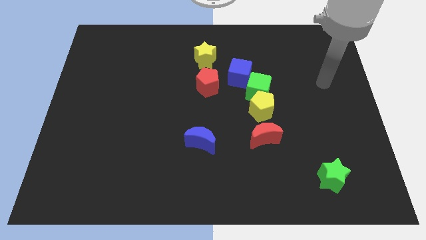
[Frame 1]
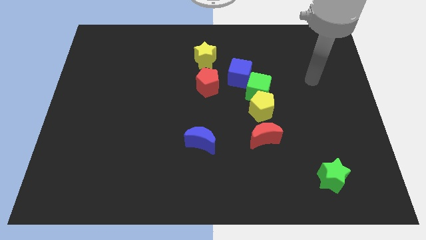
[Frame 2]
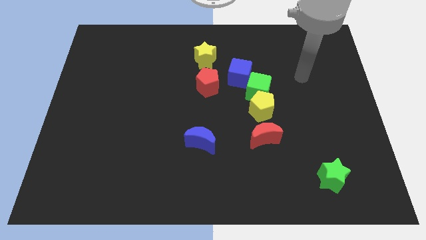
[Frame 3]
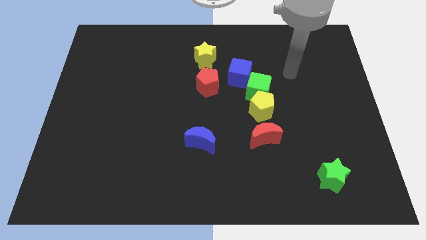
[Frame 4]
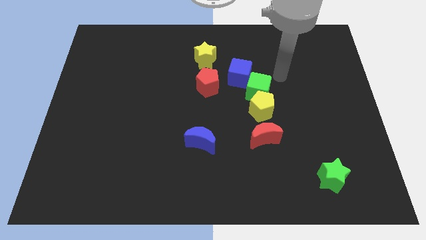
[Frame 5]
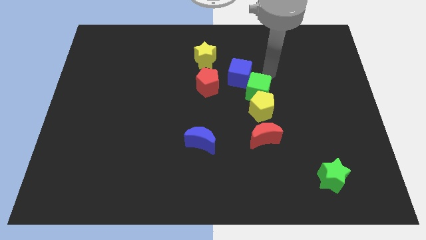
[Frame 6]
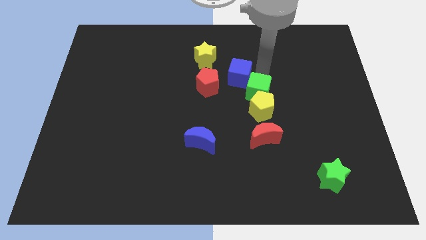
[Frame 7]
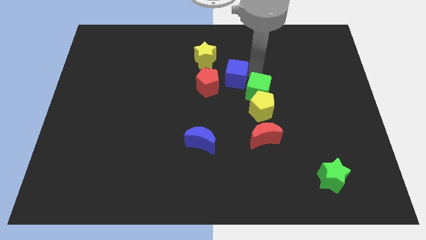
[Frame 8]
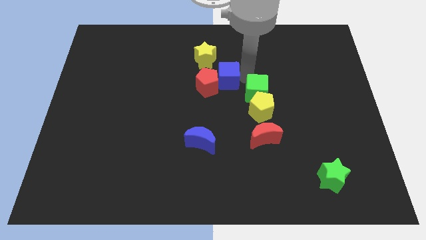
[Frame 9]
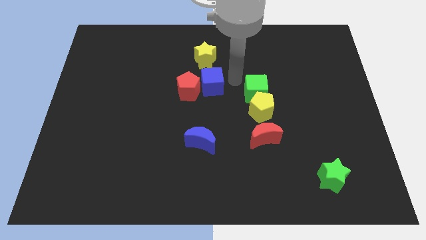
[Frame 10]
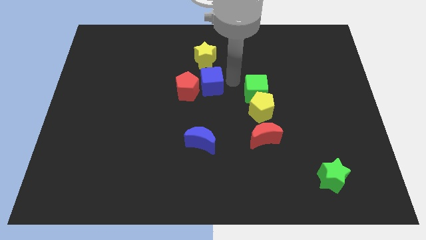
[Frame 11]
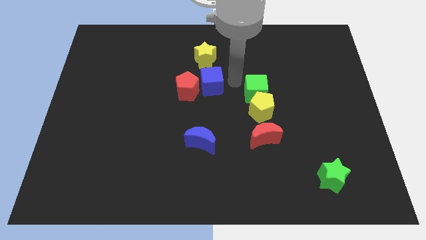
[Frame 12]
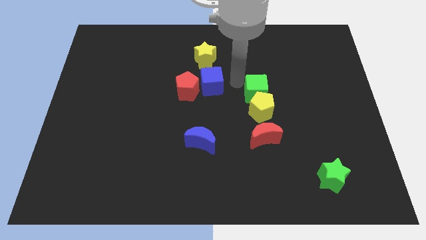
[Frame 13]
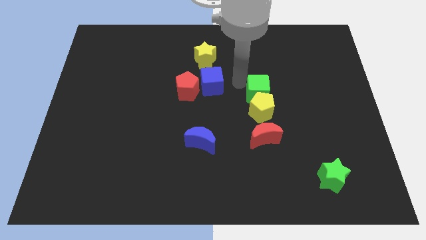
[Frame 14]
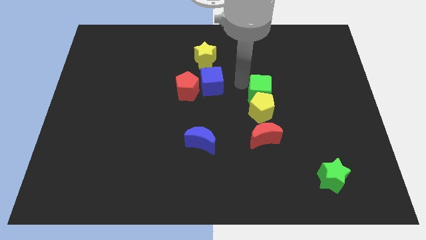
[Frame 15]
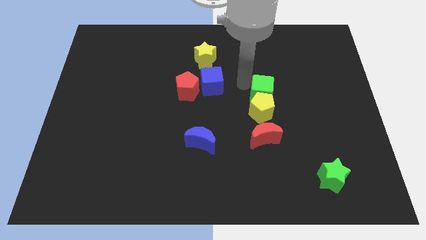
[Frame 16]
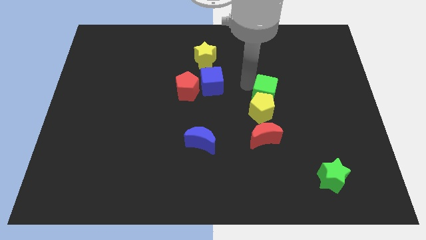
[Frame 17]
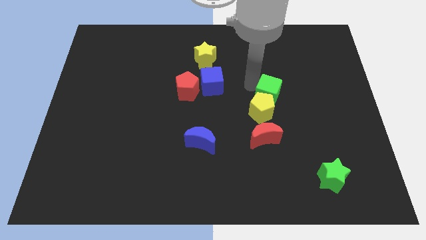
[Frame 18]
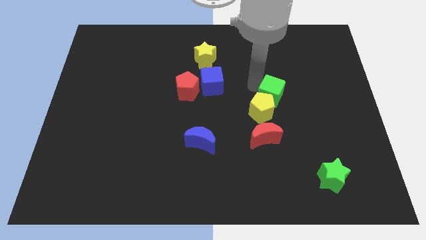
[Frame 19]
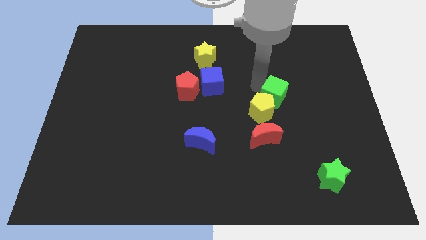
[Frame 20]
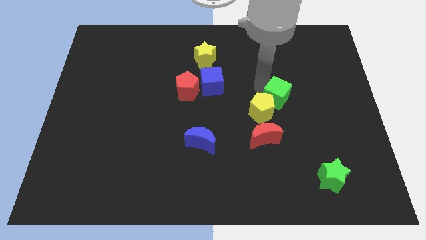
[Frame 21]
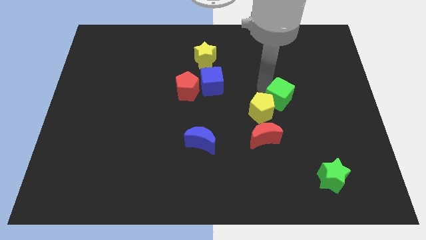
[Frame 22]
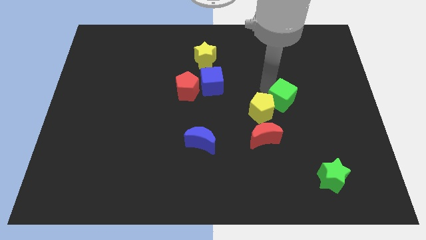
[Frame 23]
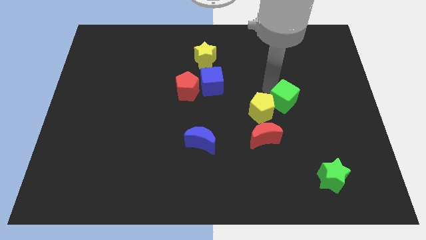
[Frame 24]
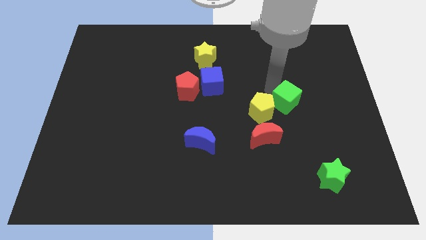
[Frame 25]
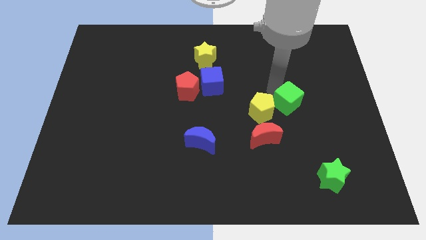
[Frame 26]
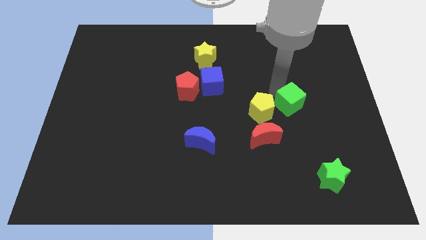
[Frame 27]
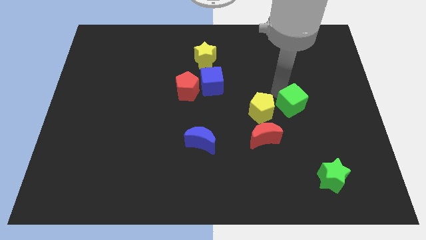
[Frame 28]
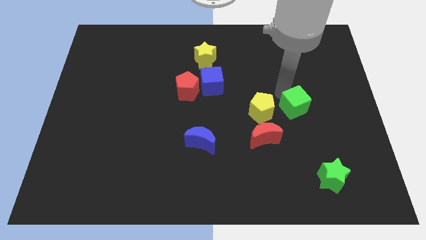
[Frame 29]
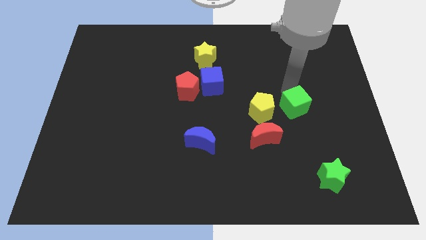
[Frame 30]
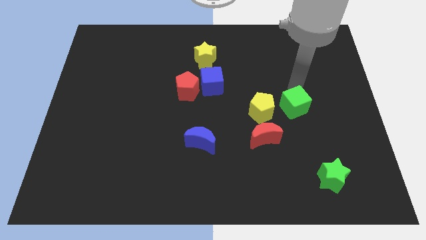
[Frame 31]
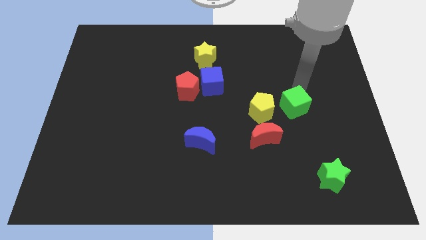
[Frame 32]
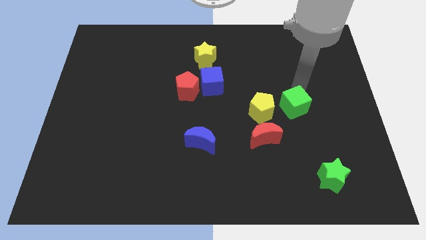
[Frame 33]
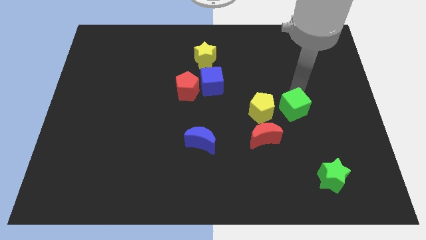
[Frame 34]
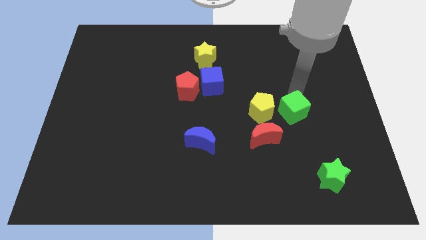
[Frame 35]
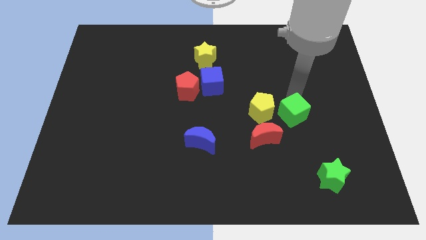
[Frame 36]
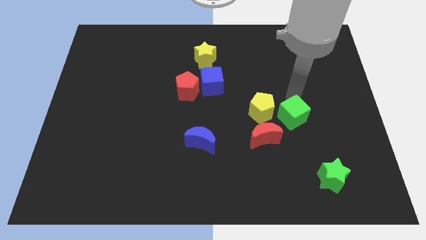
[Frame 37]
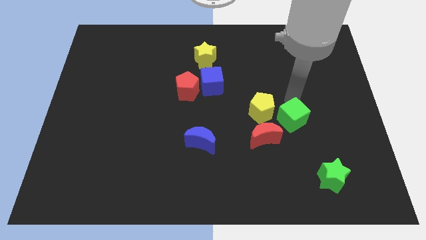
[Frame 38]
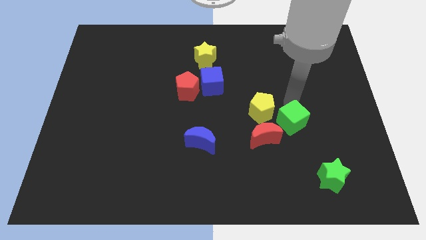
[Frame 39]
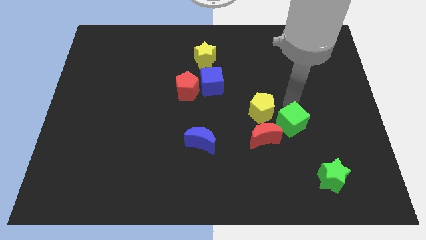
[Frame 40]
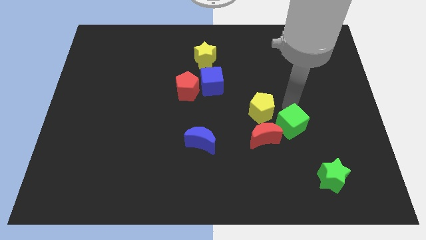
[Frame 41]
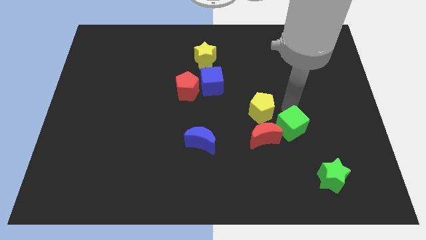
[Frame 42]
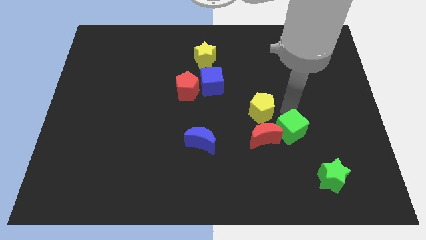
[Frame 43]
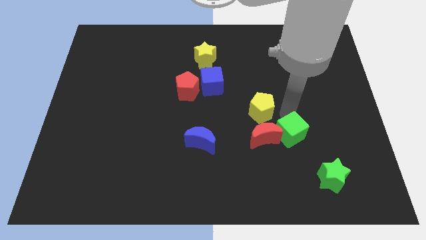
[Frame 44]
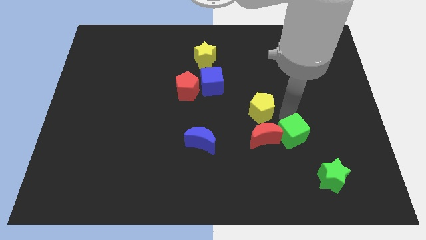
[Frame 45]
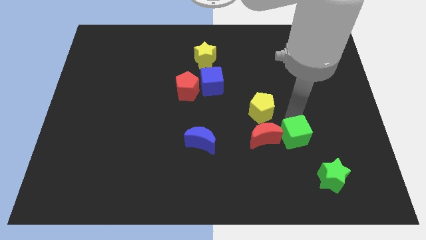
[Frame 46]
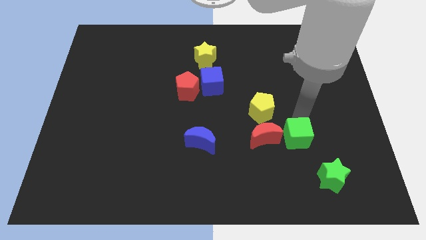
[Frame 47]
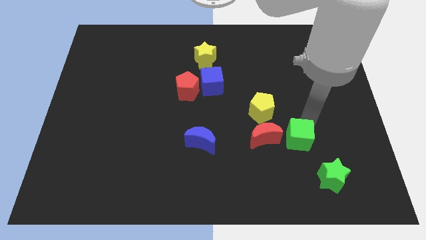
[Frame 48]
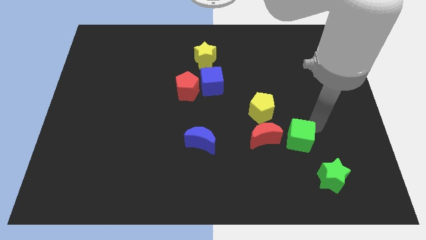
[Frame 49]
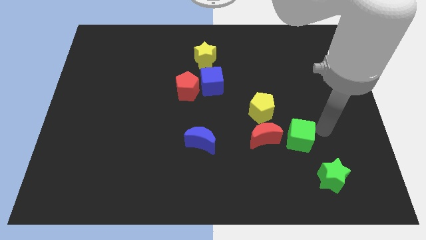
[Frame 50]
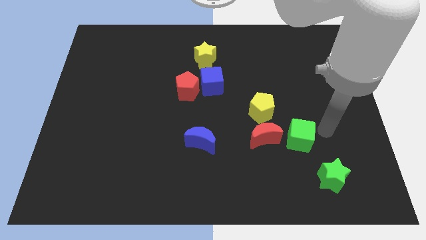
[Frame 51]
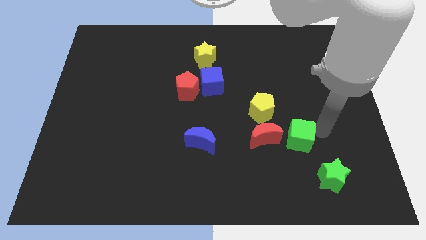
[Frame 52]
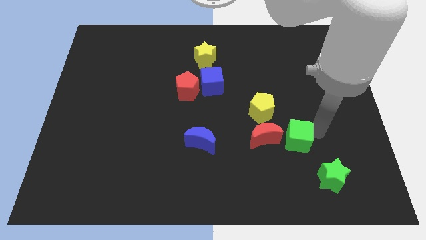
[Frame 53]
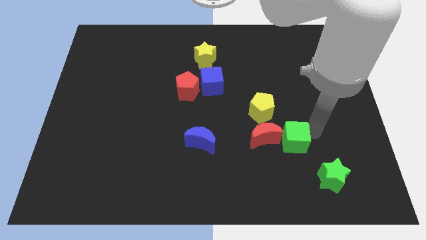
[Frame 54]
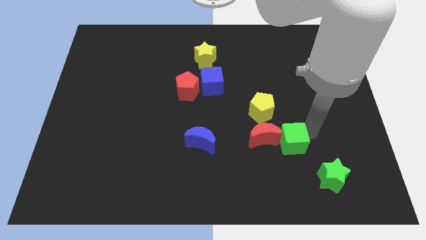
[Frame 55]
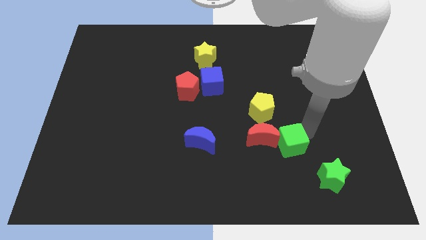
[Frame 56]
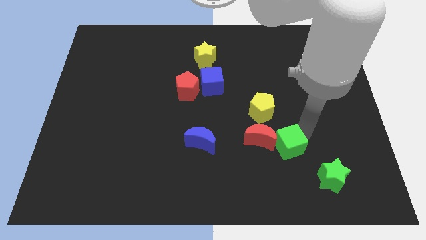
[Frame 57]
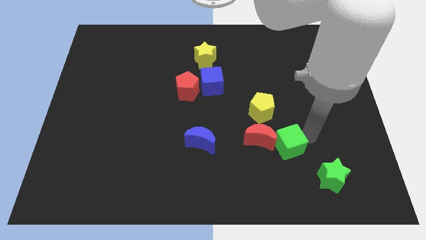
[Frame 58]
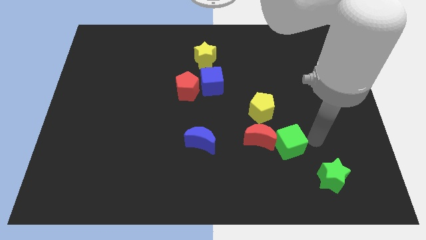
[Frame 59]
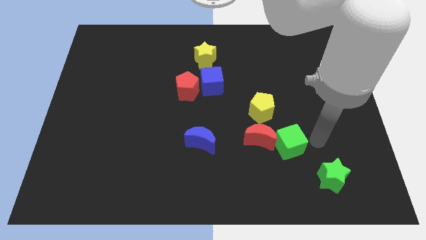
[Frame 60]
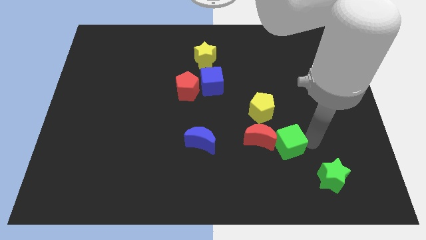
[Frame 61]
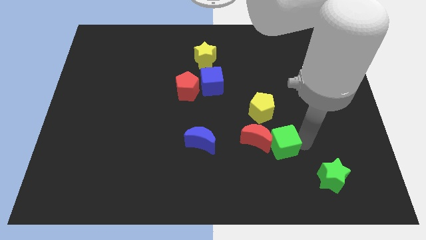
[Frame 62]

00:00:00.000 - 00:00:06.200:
push the green cube below the yellow pentagon

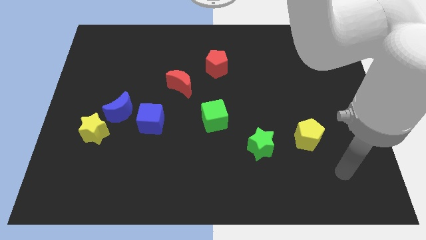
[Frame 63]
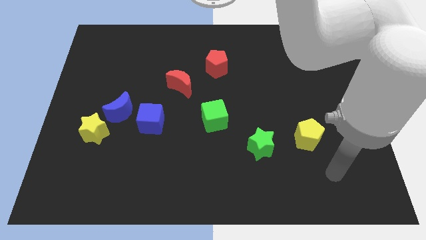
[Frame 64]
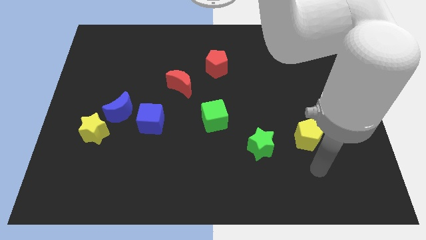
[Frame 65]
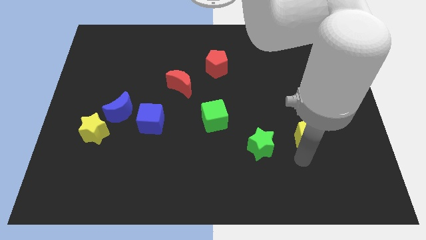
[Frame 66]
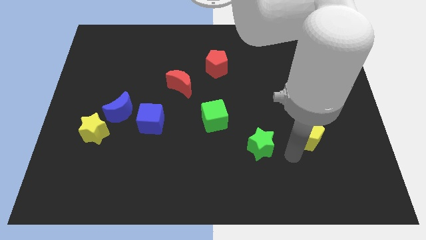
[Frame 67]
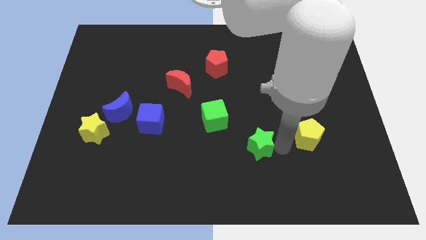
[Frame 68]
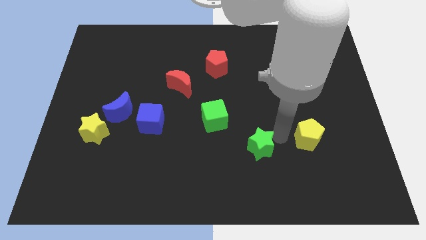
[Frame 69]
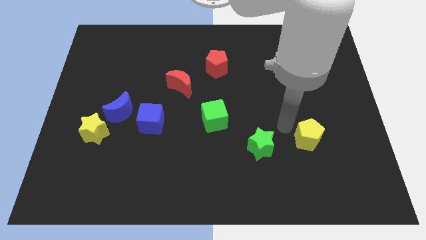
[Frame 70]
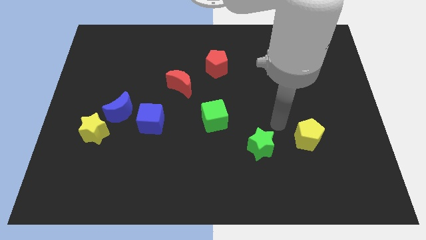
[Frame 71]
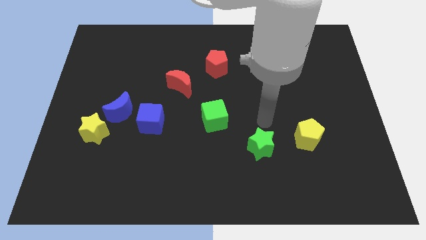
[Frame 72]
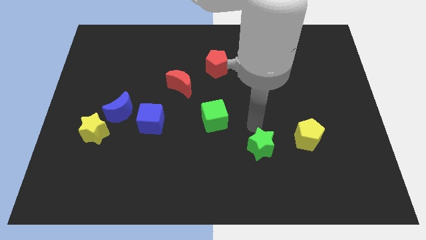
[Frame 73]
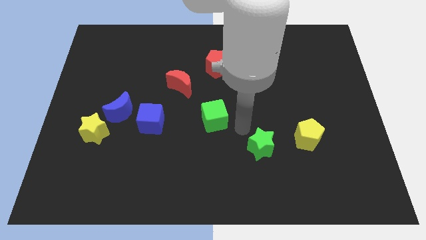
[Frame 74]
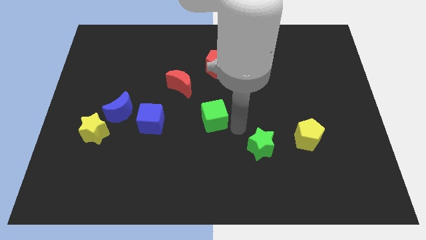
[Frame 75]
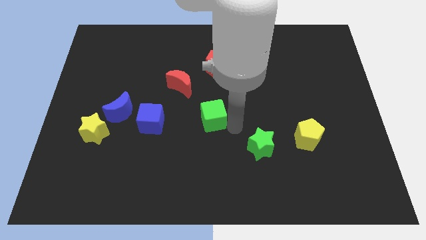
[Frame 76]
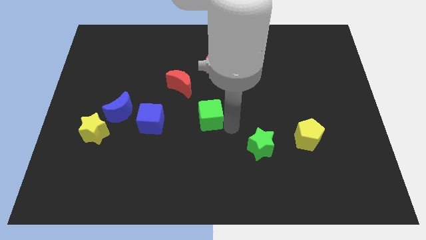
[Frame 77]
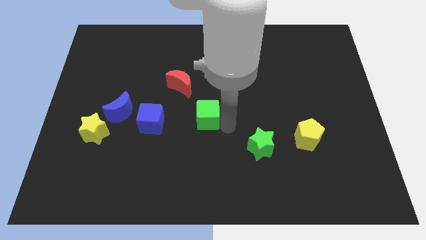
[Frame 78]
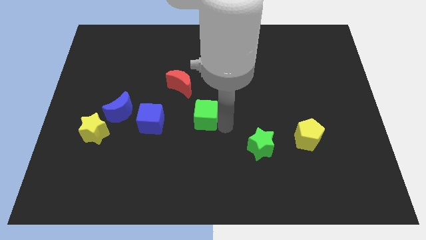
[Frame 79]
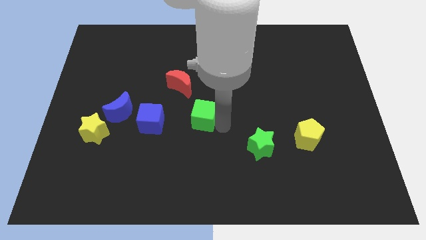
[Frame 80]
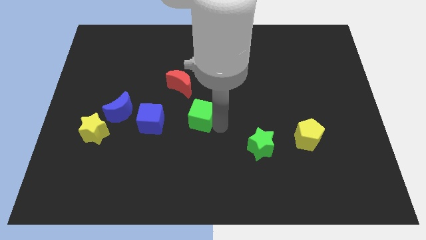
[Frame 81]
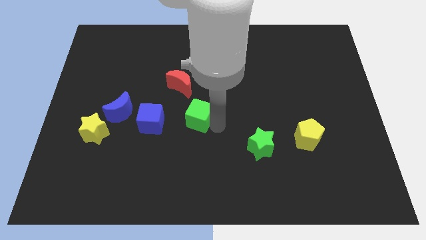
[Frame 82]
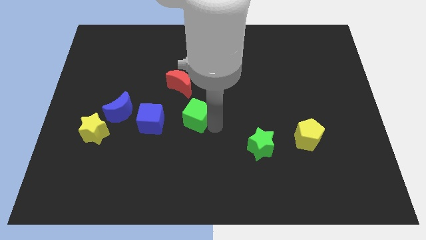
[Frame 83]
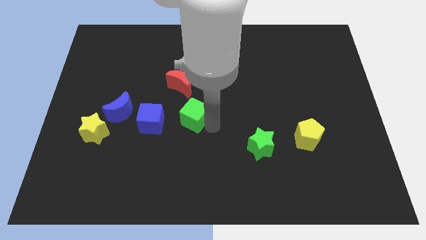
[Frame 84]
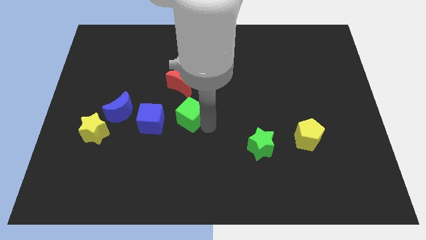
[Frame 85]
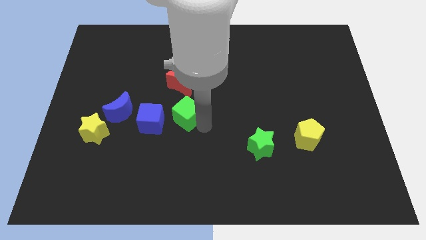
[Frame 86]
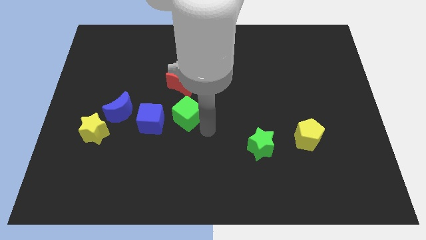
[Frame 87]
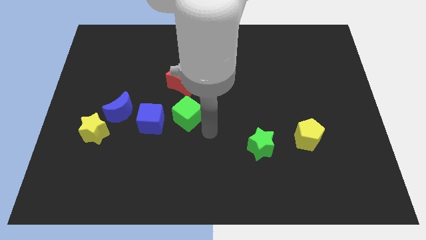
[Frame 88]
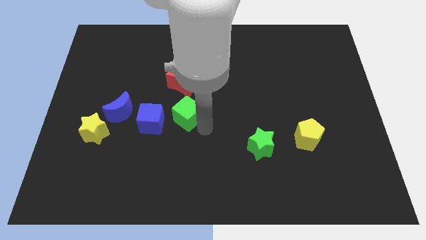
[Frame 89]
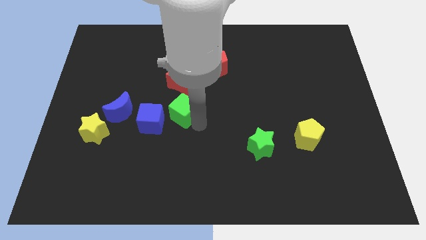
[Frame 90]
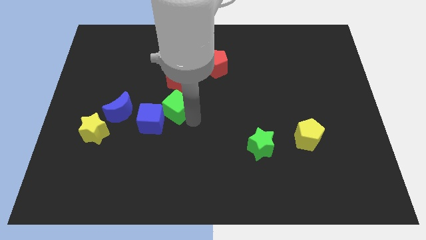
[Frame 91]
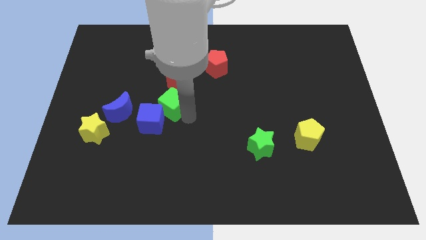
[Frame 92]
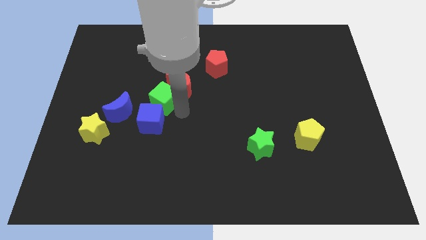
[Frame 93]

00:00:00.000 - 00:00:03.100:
put the green cube to the top right of the blue moon
